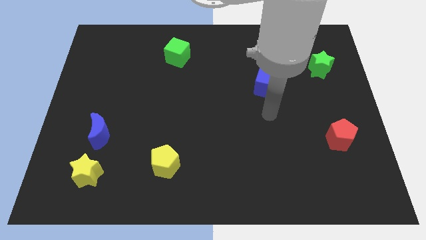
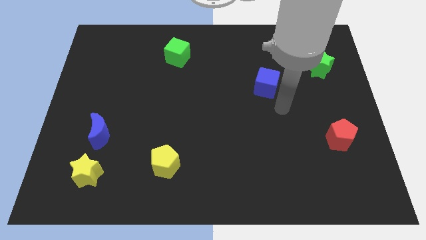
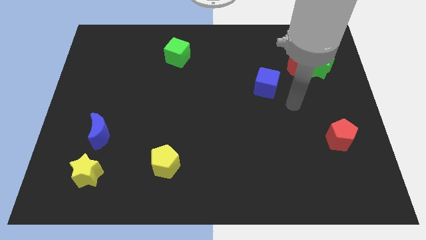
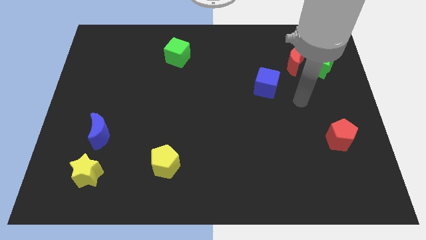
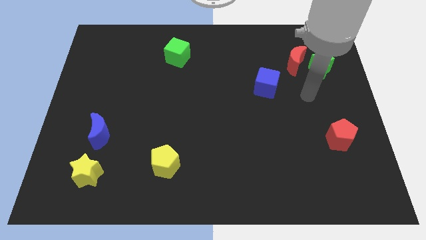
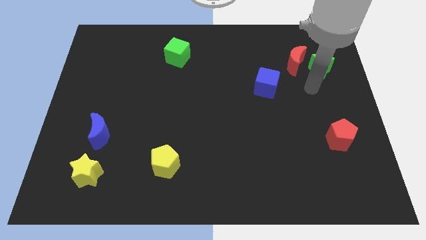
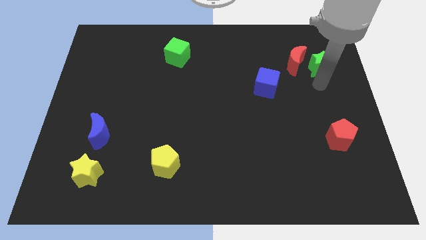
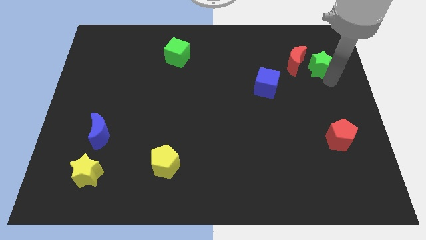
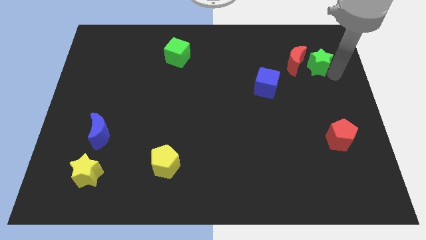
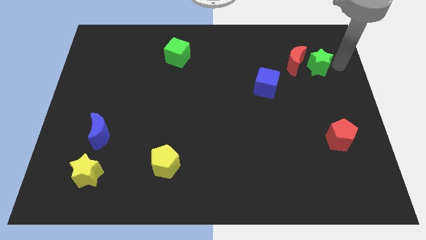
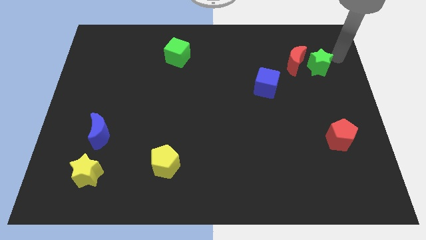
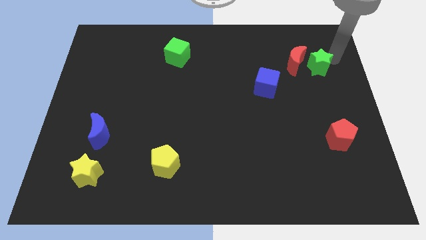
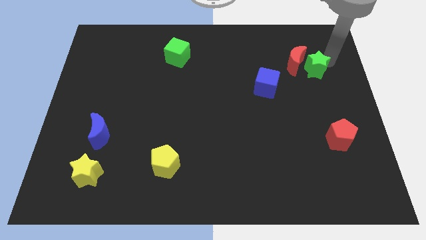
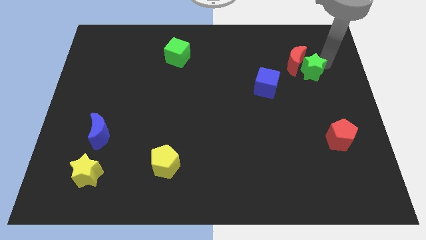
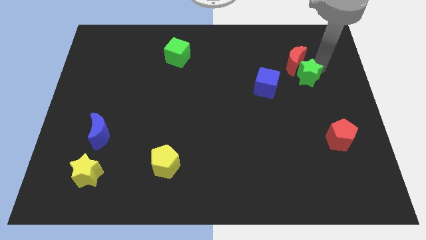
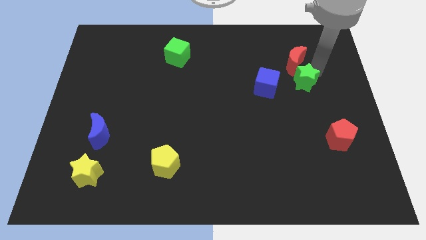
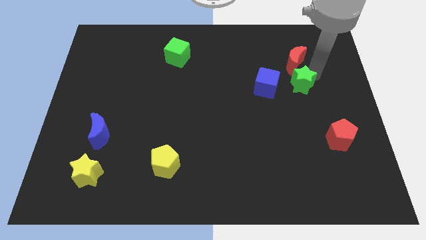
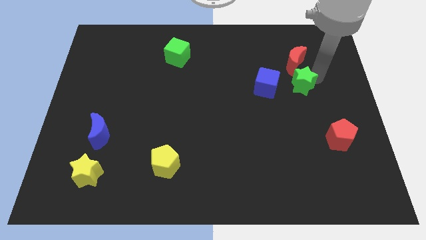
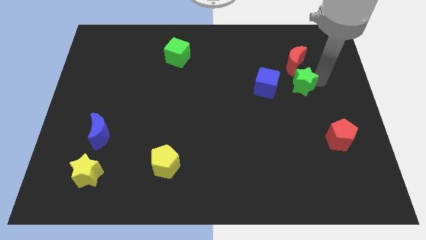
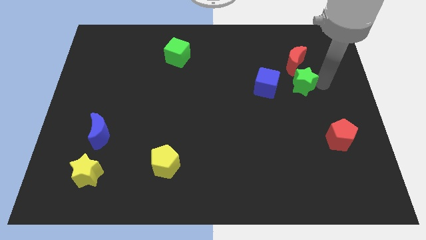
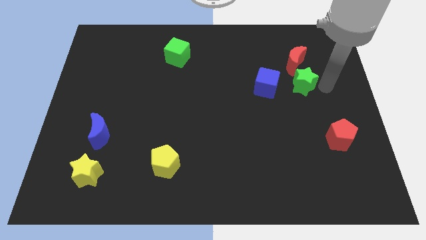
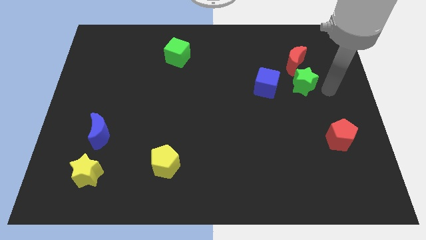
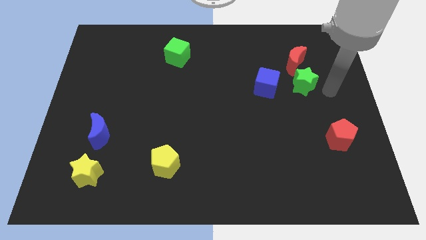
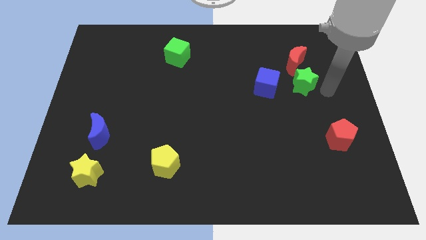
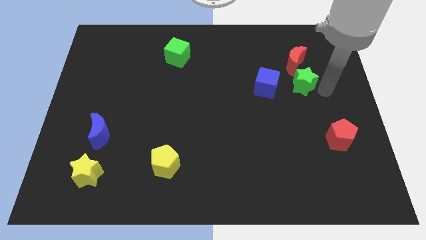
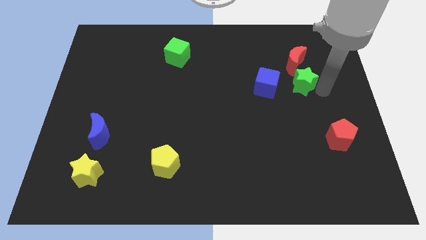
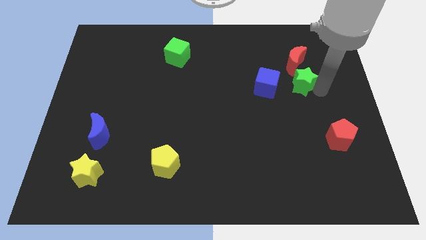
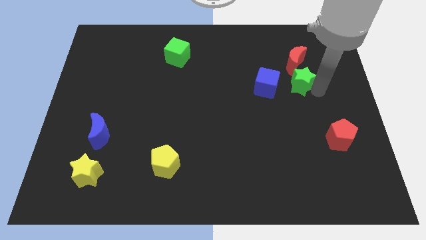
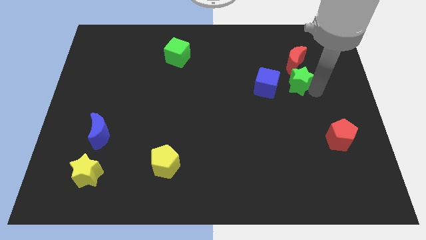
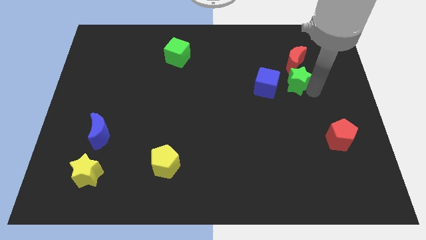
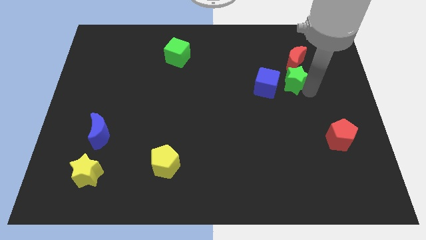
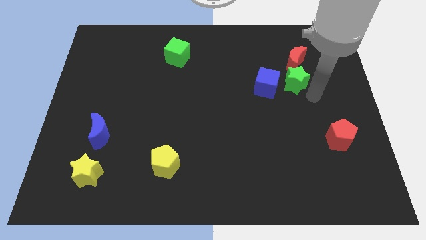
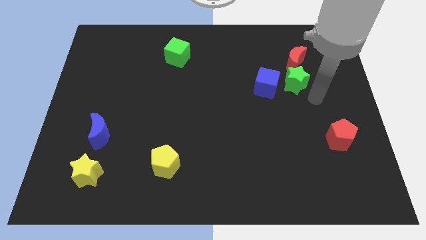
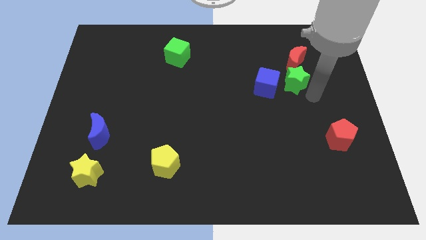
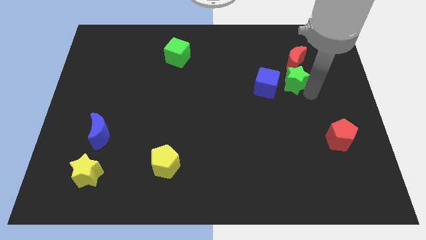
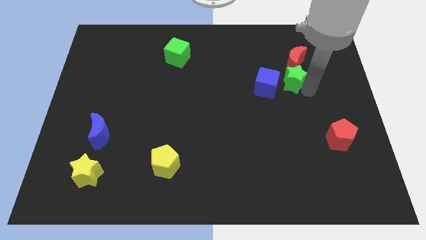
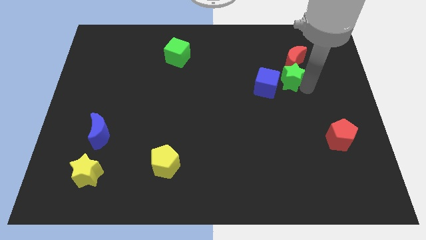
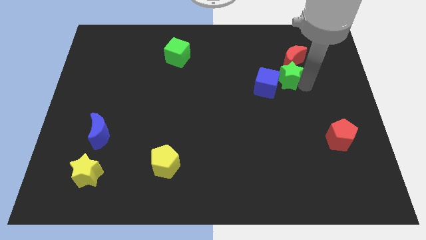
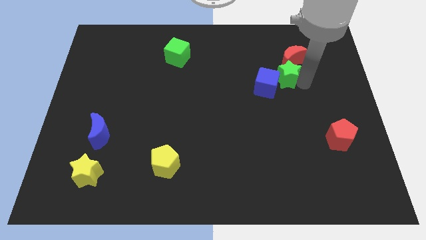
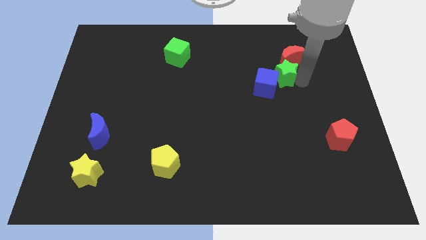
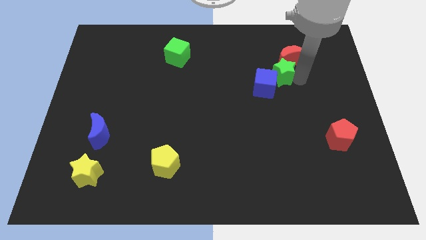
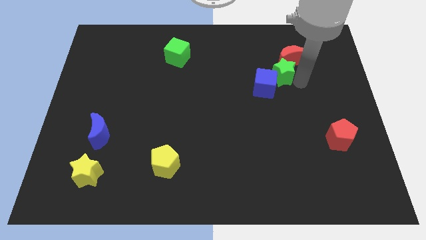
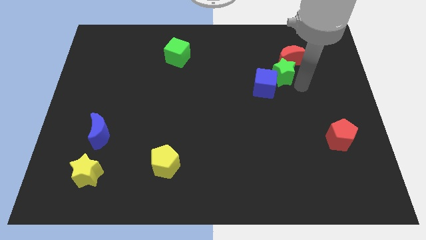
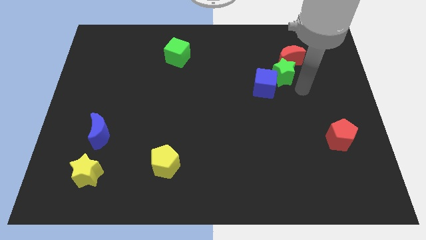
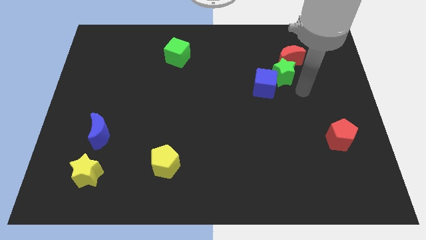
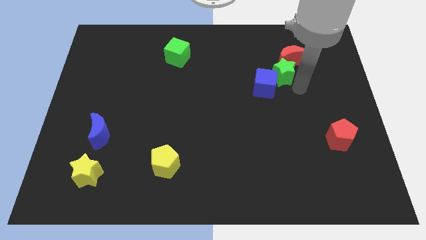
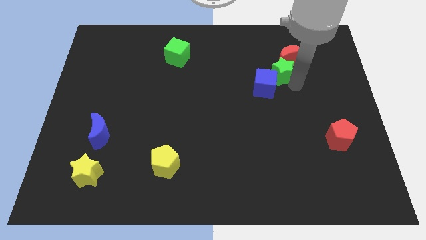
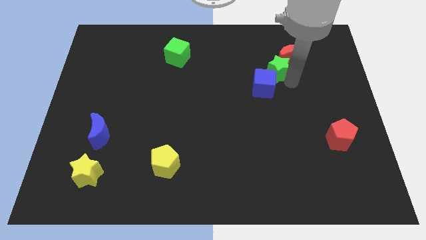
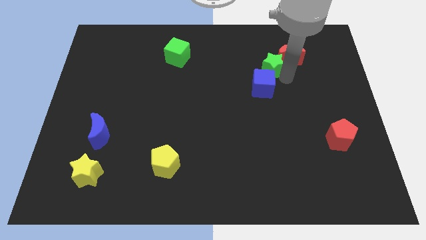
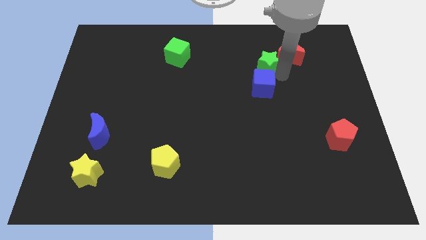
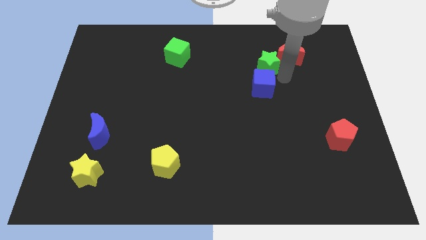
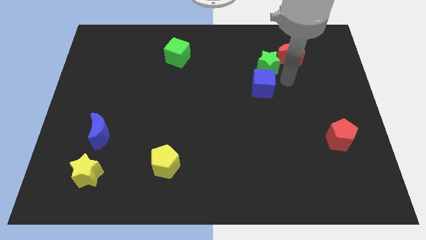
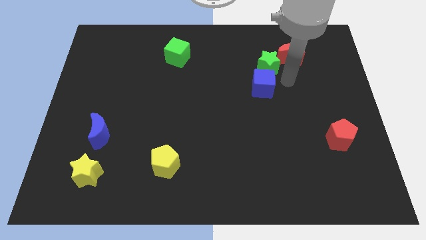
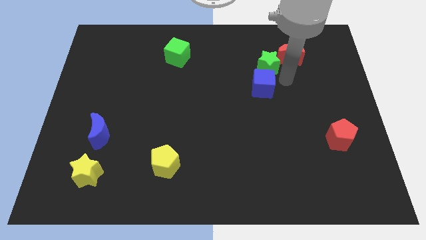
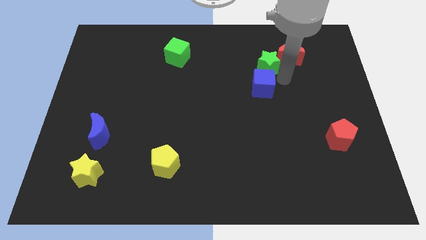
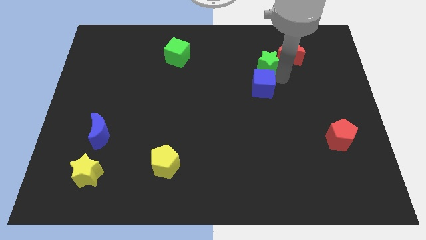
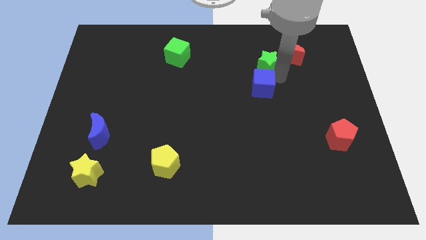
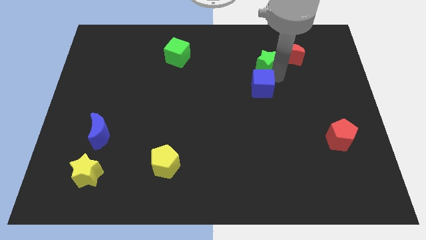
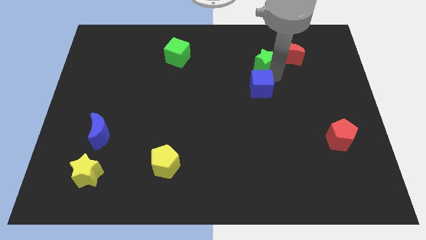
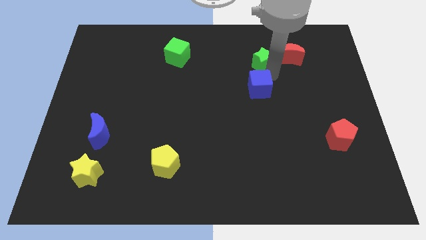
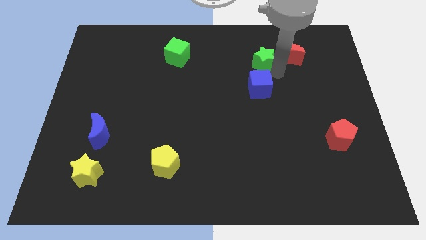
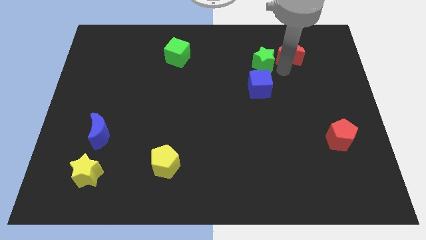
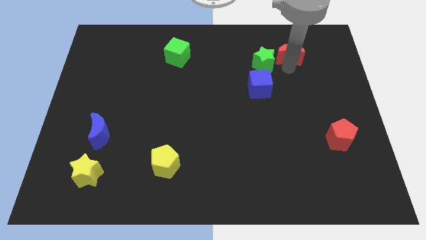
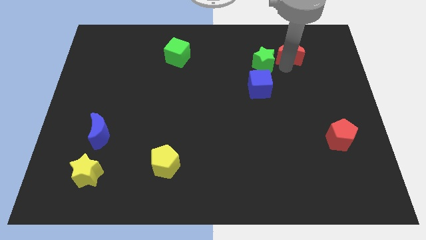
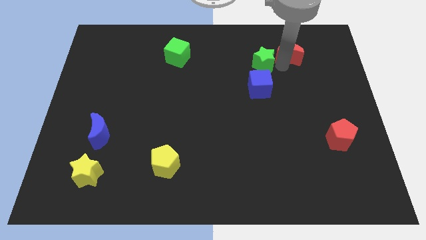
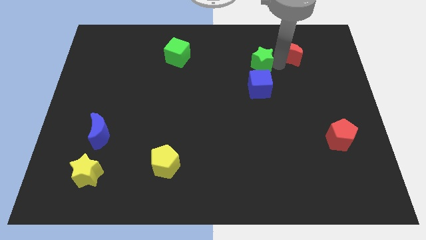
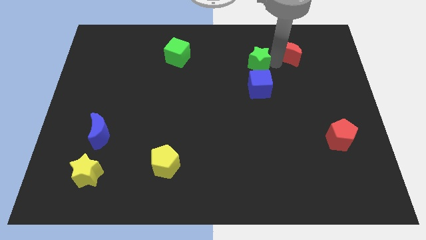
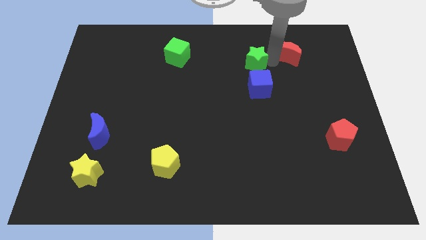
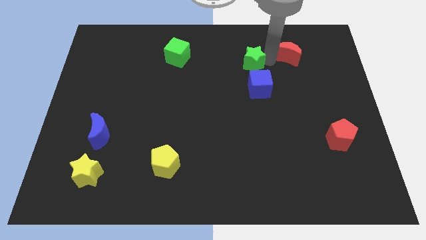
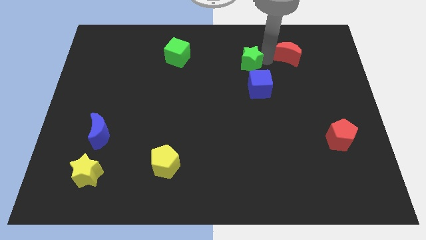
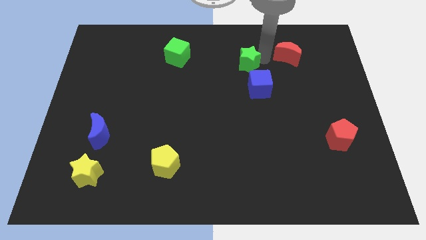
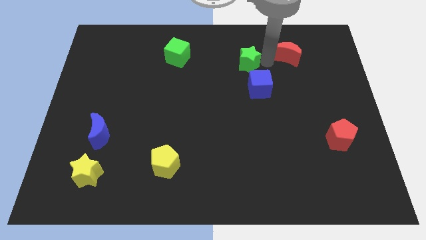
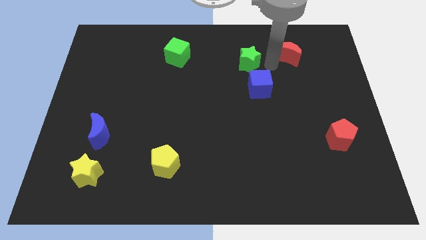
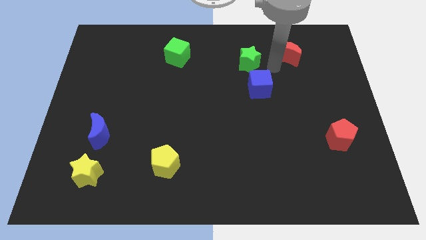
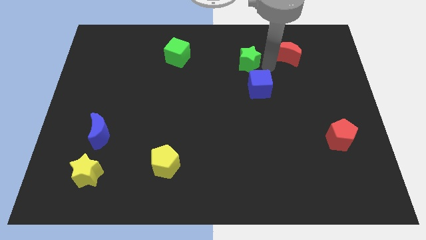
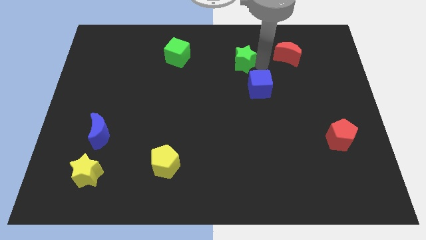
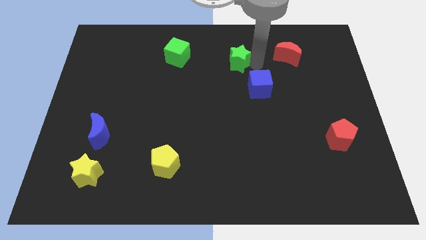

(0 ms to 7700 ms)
move the green star to the left

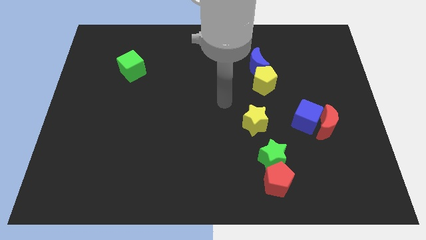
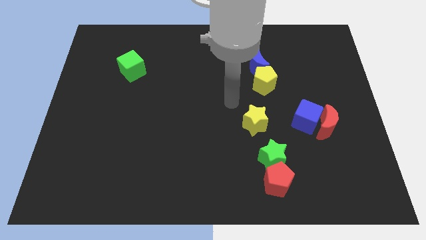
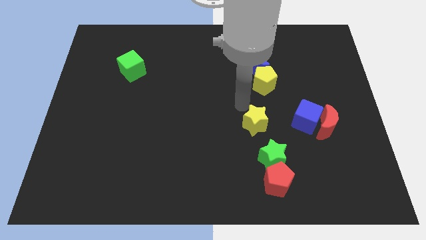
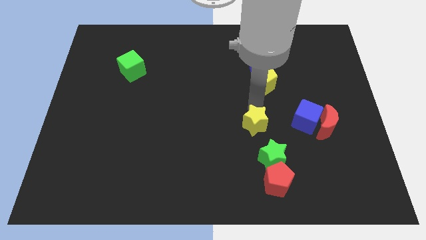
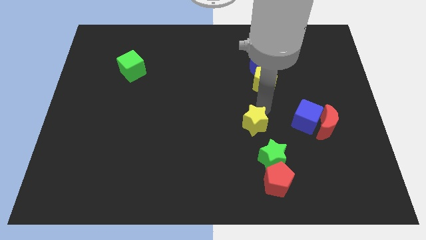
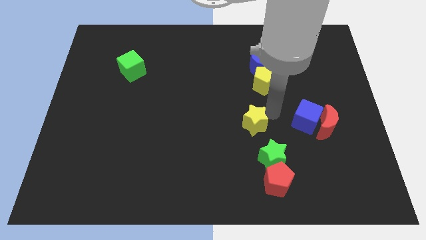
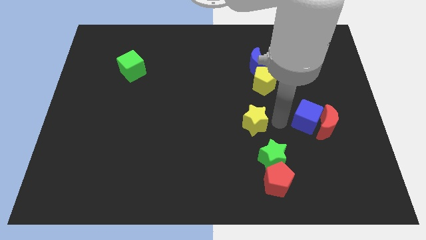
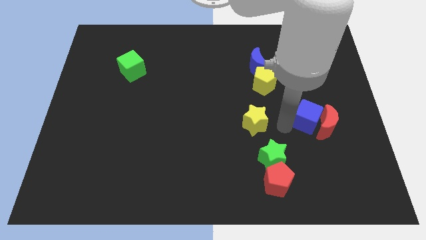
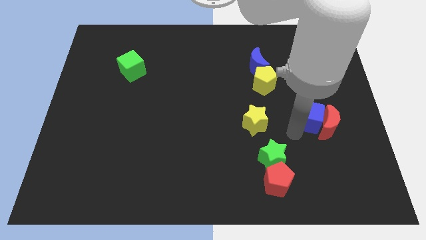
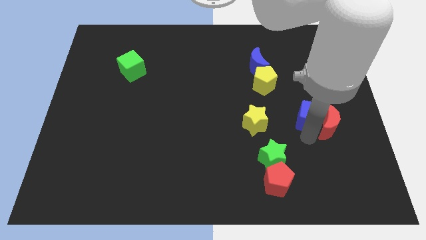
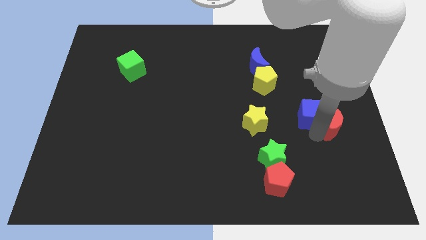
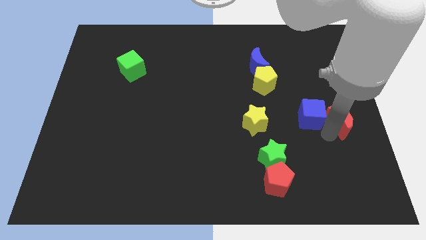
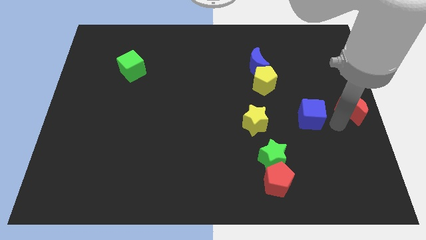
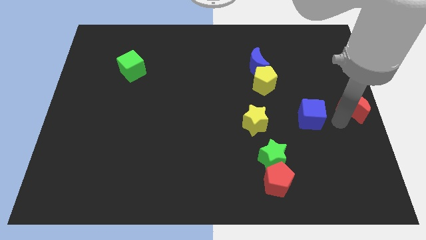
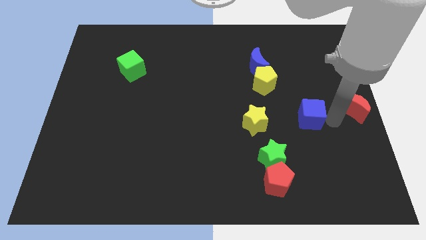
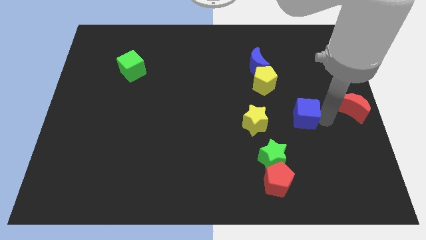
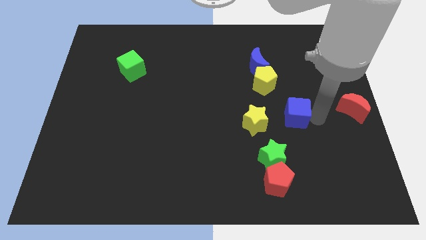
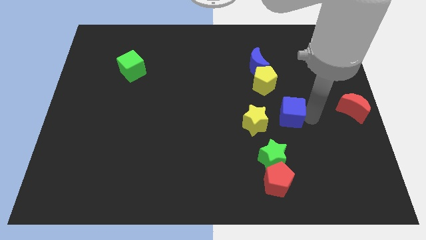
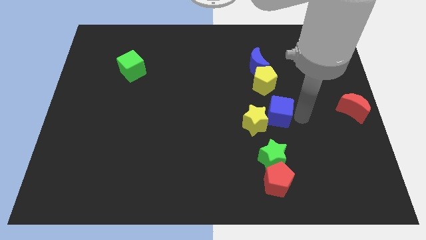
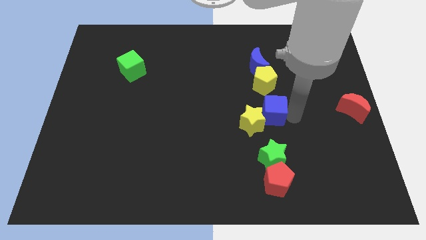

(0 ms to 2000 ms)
slide the blue cube slightly left
